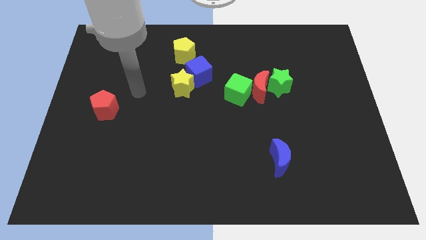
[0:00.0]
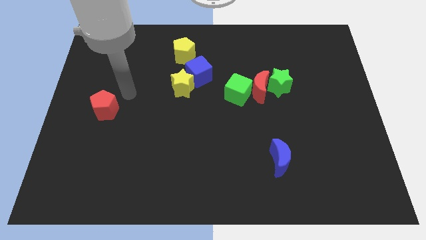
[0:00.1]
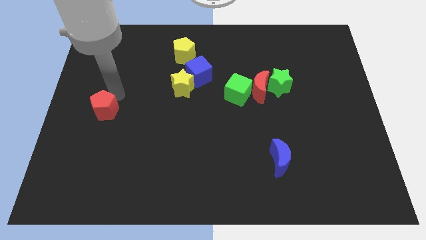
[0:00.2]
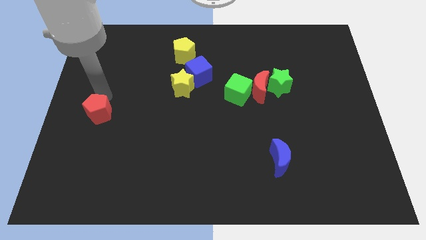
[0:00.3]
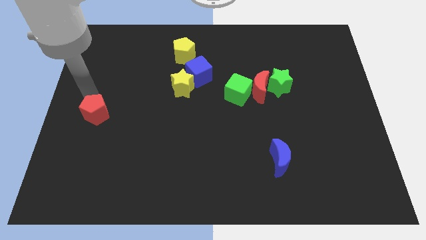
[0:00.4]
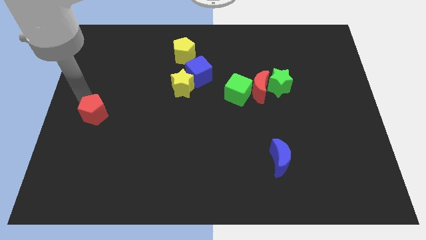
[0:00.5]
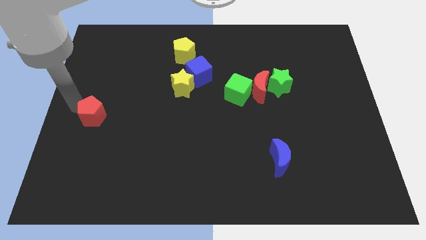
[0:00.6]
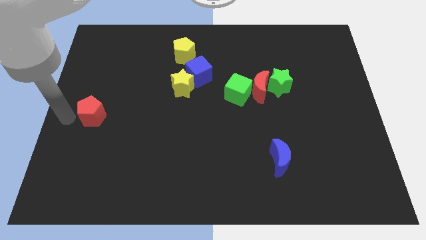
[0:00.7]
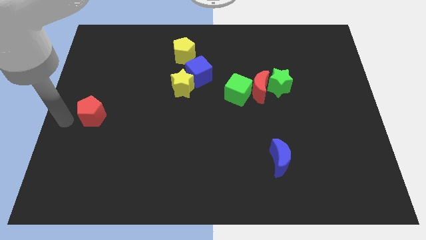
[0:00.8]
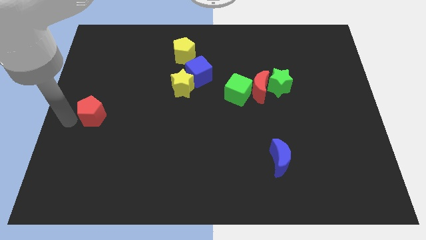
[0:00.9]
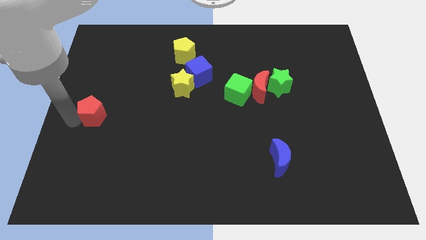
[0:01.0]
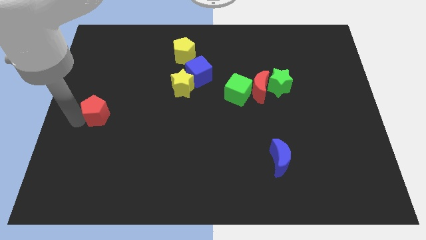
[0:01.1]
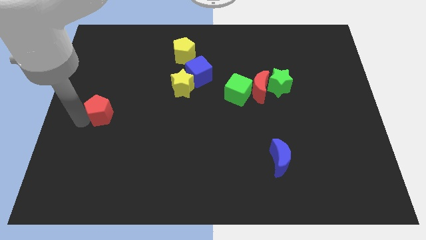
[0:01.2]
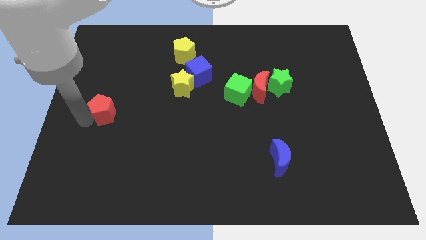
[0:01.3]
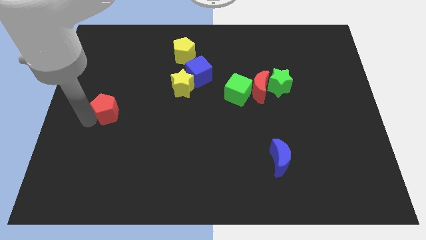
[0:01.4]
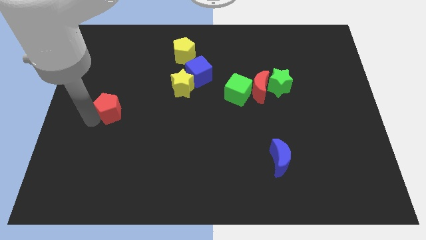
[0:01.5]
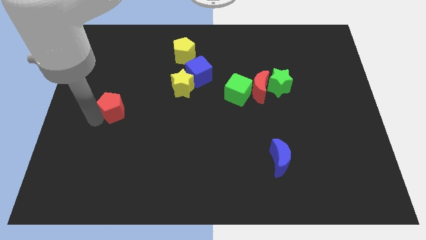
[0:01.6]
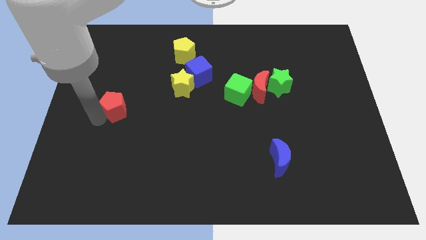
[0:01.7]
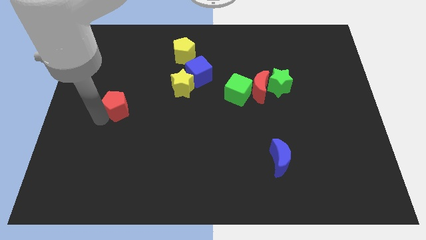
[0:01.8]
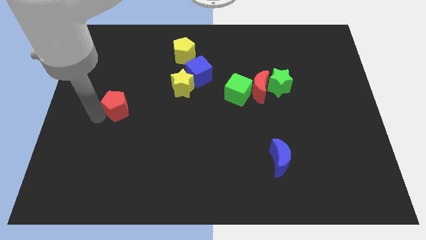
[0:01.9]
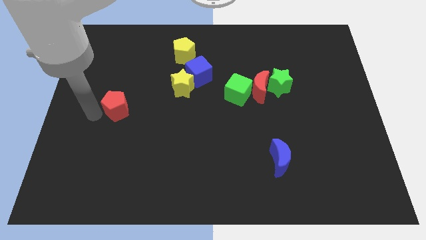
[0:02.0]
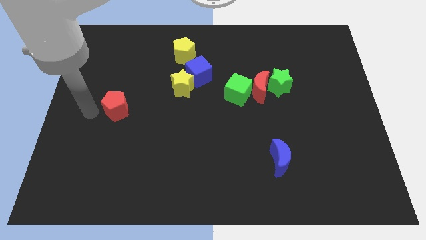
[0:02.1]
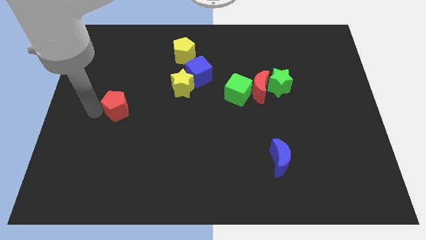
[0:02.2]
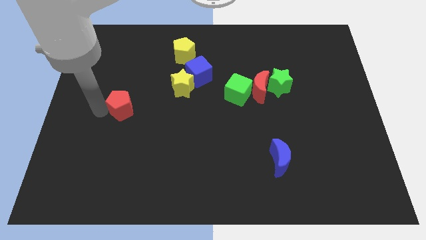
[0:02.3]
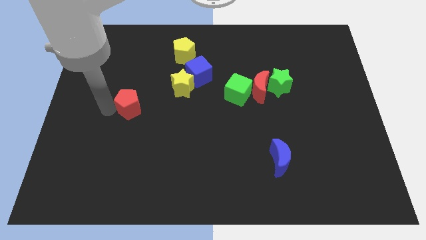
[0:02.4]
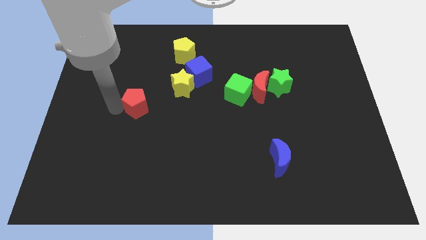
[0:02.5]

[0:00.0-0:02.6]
slightly move the red pentagon right

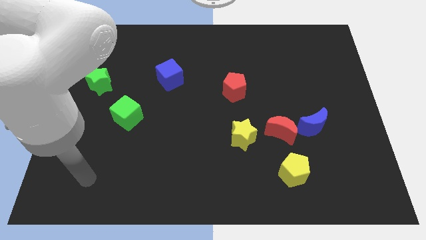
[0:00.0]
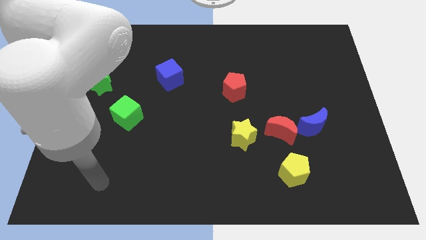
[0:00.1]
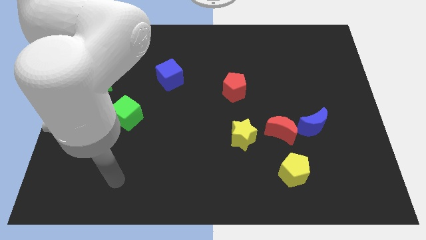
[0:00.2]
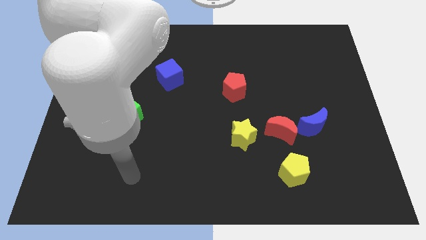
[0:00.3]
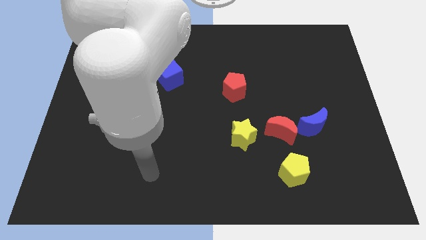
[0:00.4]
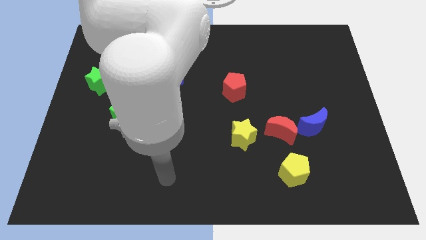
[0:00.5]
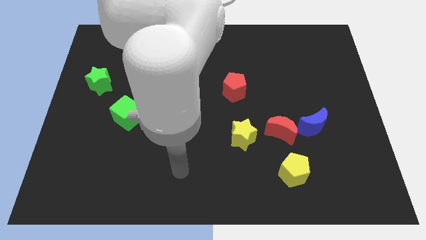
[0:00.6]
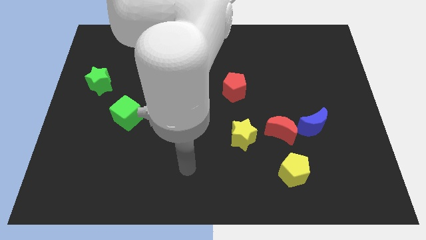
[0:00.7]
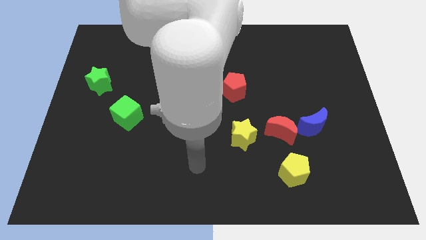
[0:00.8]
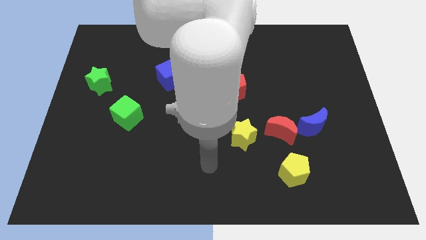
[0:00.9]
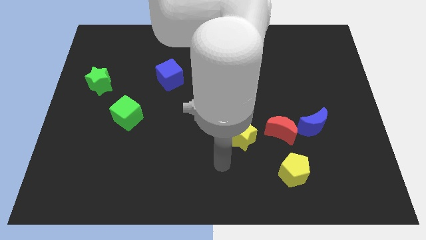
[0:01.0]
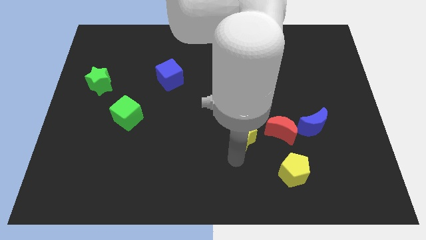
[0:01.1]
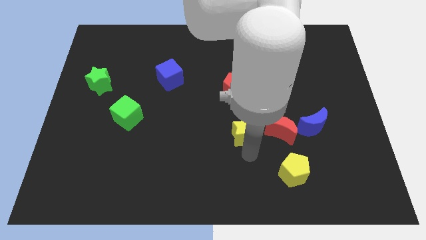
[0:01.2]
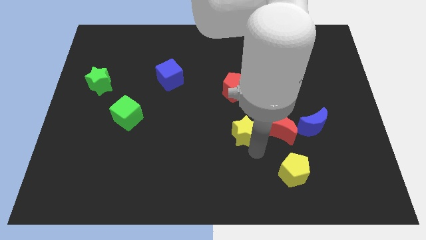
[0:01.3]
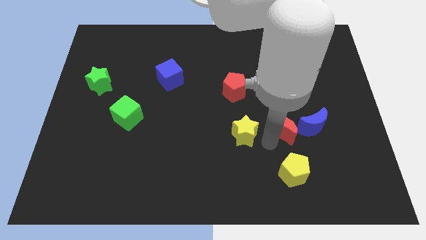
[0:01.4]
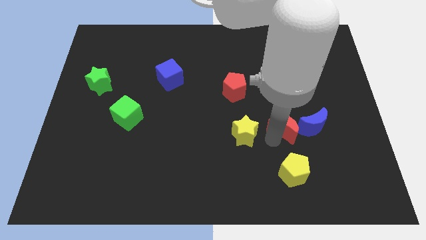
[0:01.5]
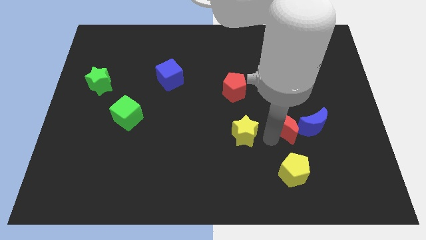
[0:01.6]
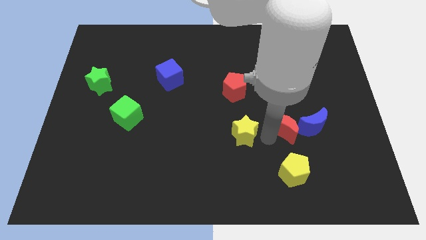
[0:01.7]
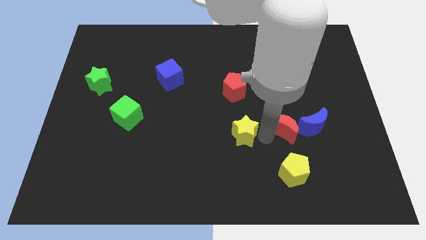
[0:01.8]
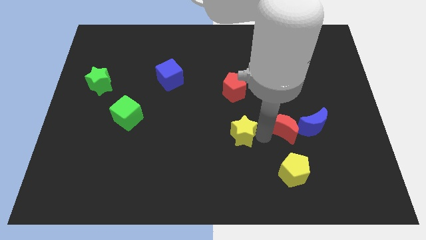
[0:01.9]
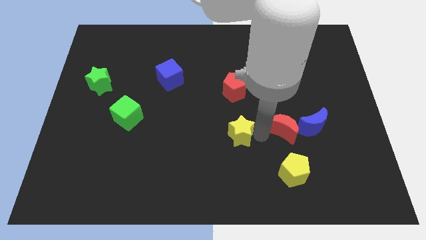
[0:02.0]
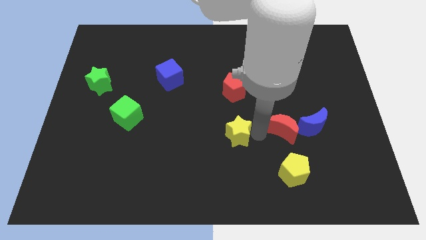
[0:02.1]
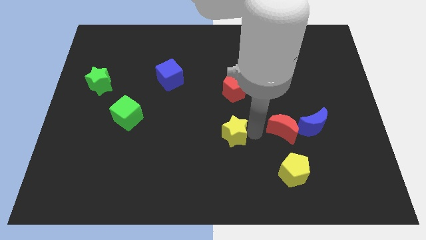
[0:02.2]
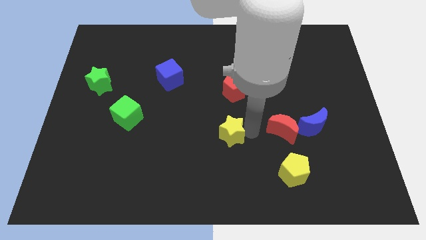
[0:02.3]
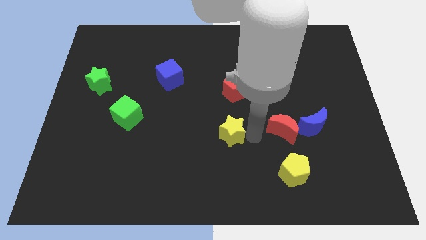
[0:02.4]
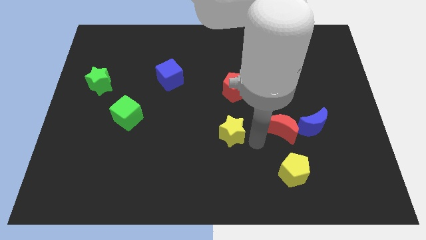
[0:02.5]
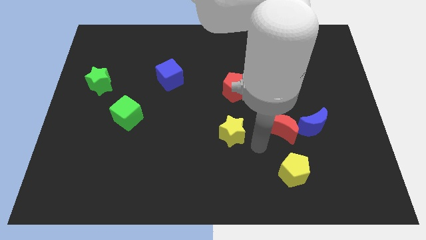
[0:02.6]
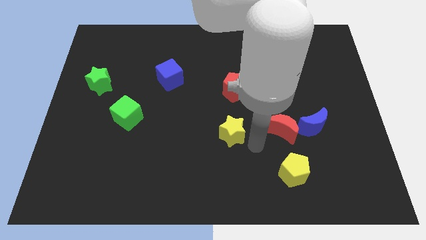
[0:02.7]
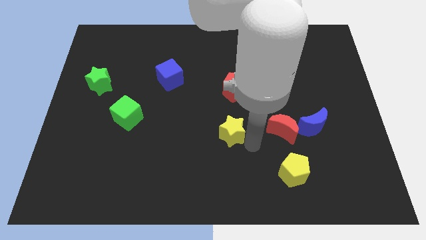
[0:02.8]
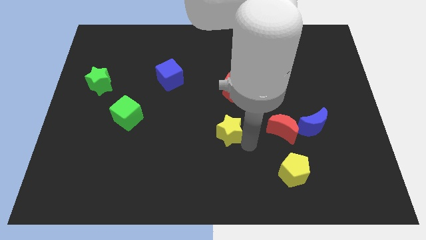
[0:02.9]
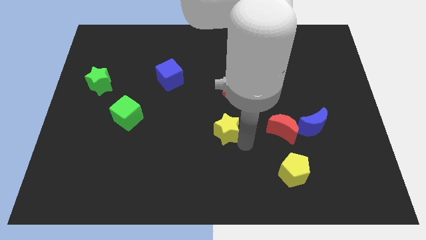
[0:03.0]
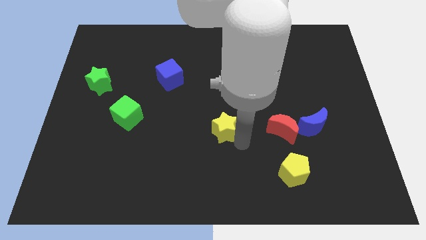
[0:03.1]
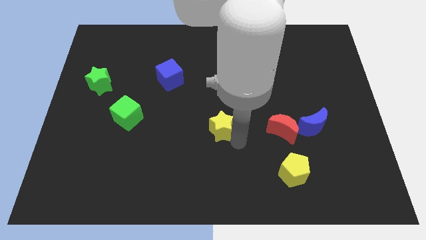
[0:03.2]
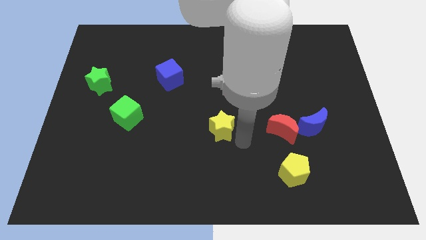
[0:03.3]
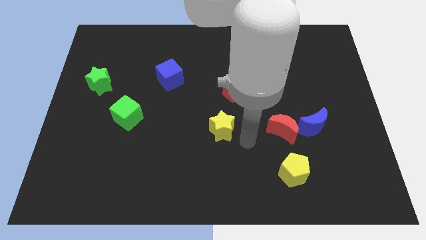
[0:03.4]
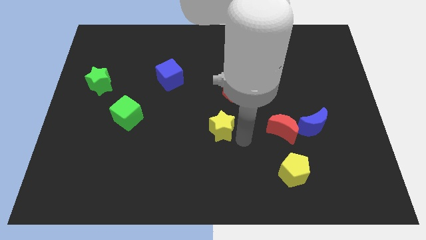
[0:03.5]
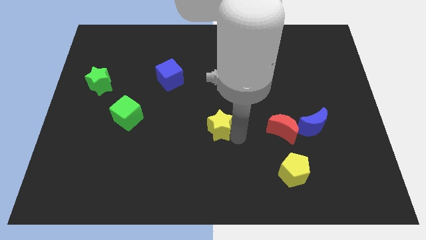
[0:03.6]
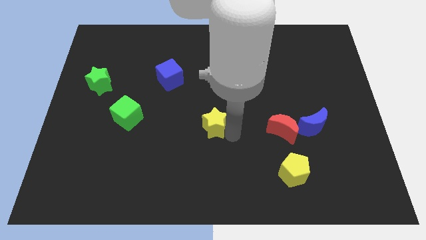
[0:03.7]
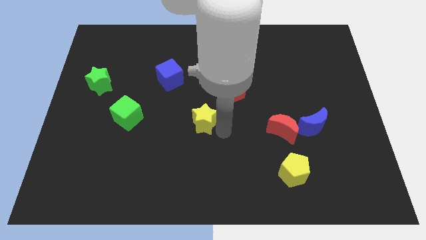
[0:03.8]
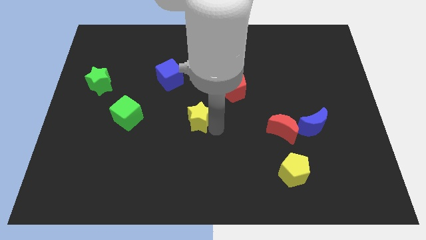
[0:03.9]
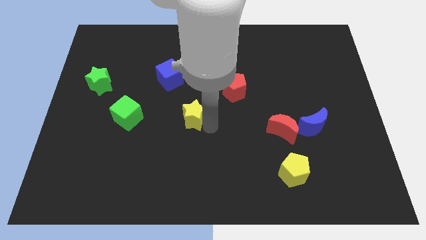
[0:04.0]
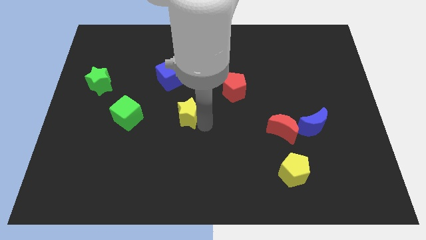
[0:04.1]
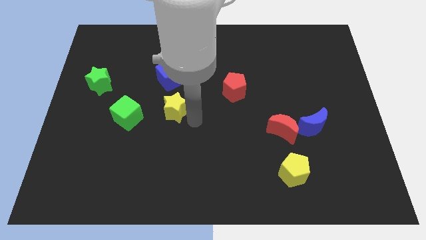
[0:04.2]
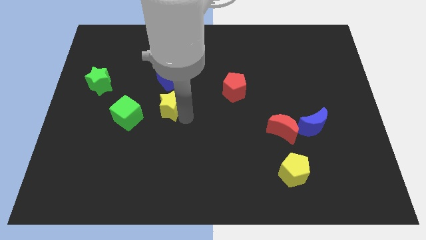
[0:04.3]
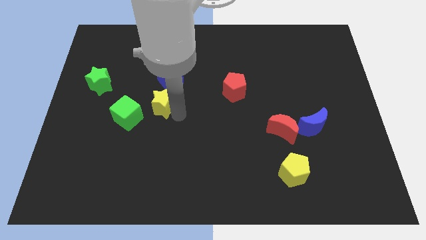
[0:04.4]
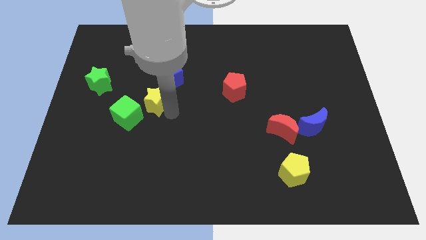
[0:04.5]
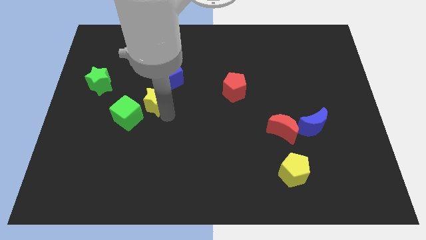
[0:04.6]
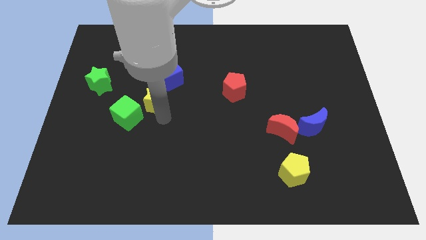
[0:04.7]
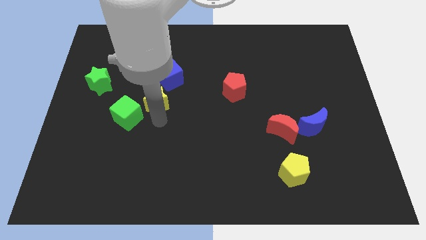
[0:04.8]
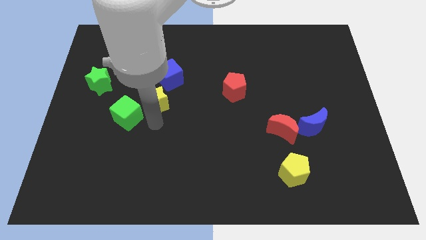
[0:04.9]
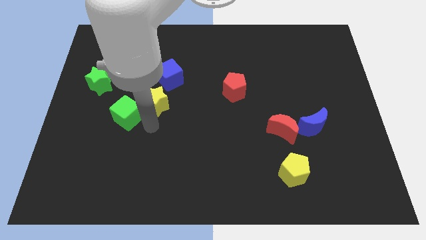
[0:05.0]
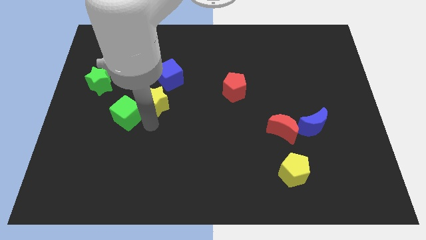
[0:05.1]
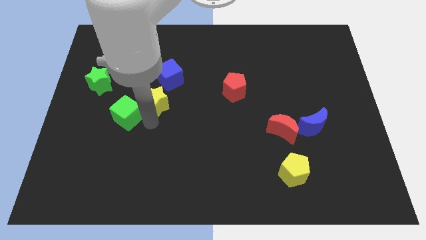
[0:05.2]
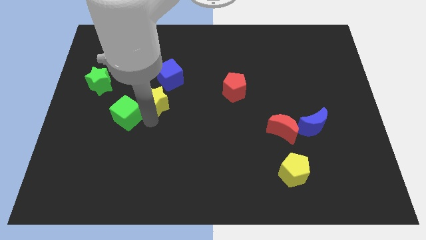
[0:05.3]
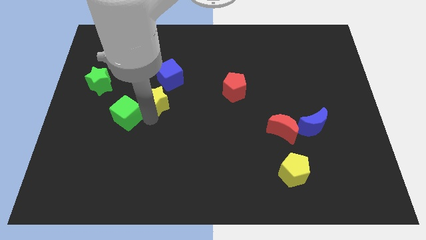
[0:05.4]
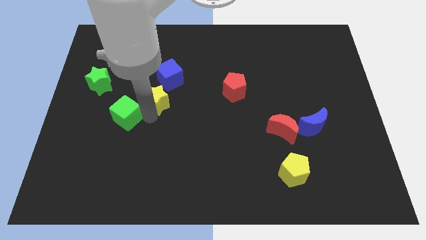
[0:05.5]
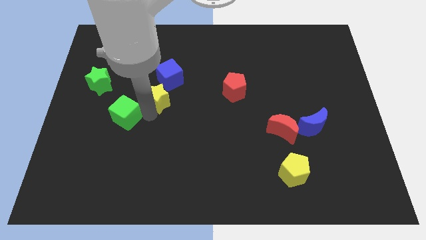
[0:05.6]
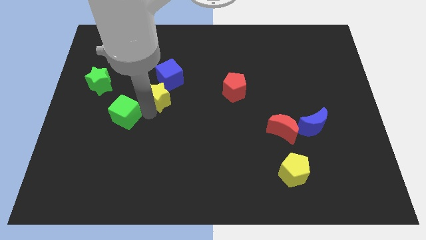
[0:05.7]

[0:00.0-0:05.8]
slide the yellow star upwards and then to the left

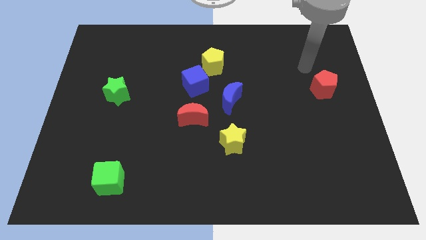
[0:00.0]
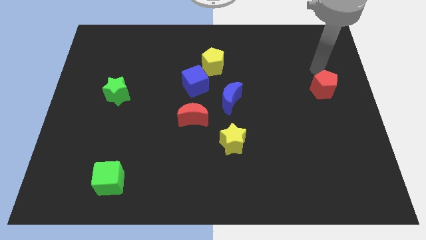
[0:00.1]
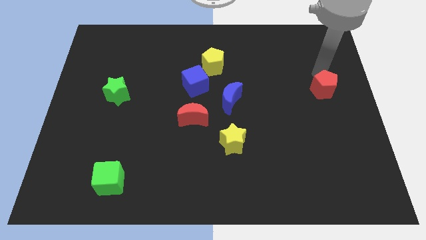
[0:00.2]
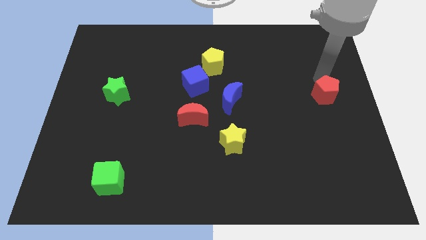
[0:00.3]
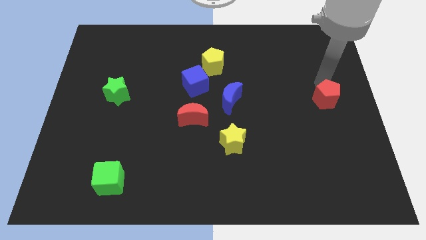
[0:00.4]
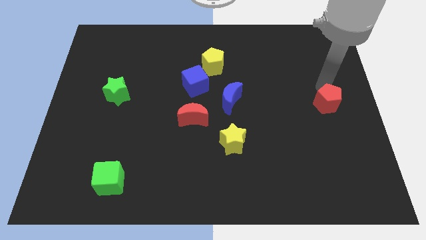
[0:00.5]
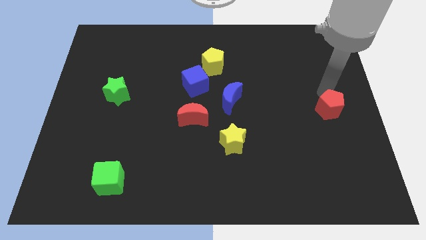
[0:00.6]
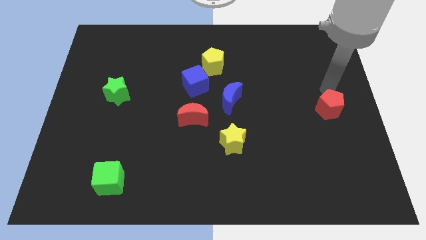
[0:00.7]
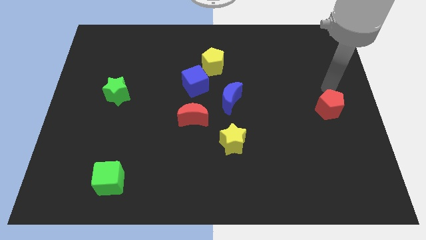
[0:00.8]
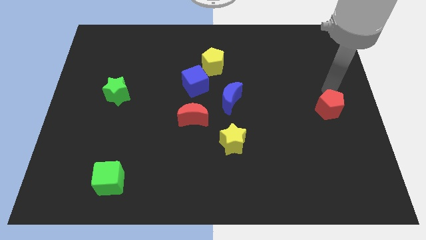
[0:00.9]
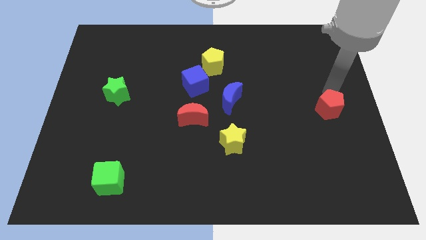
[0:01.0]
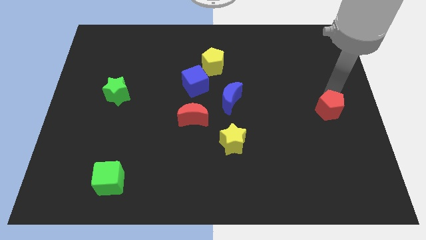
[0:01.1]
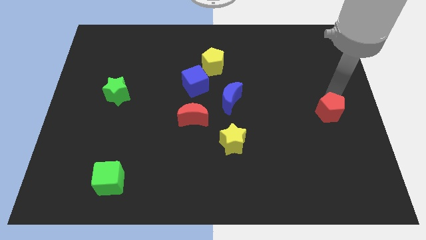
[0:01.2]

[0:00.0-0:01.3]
push the red pentagon a bit downwards
